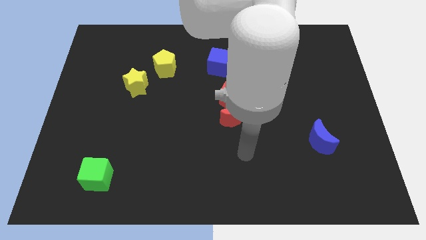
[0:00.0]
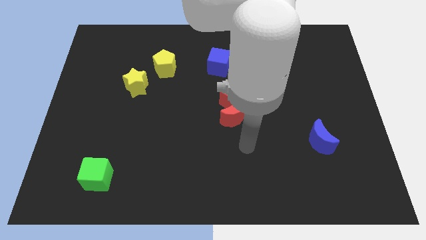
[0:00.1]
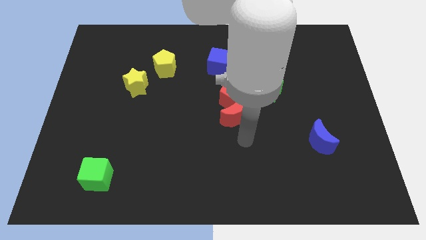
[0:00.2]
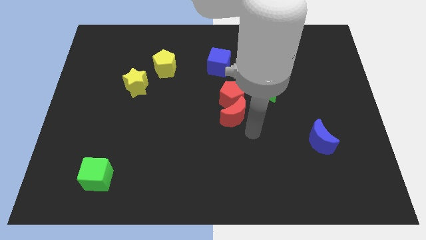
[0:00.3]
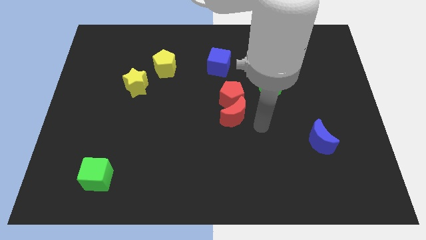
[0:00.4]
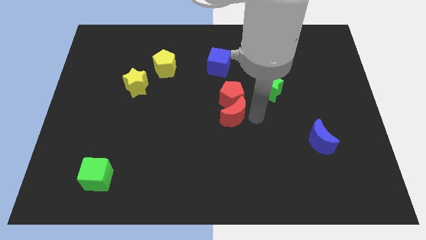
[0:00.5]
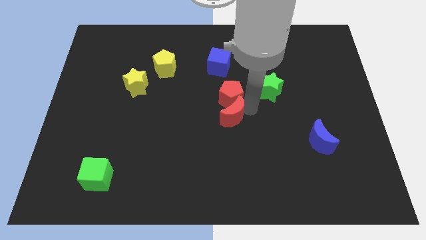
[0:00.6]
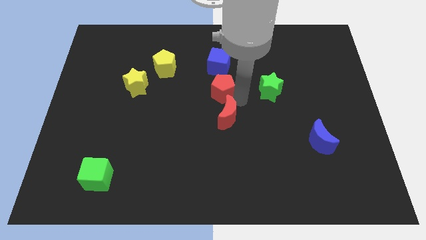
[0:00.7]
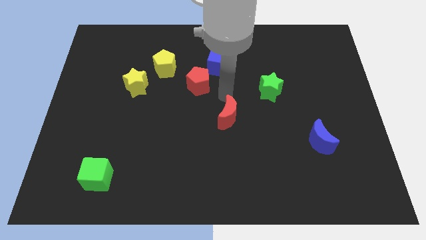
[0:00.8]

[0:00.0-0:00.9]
separate the red moon from the red pentagon

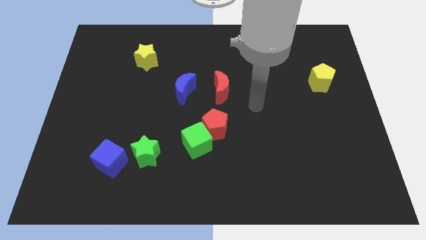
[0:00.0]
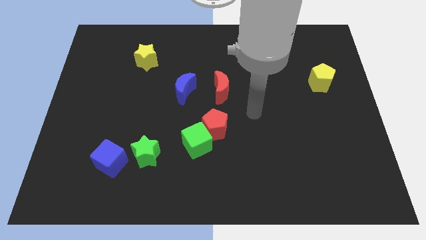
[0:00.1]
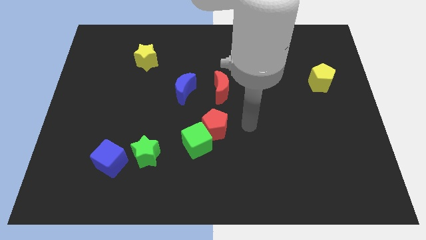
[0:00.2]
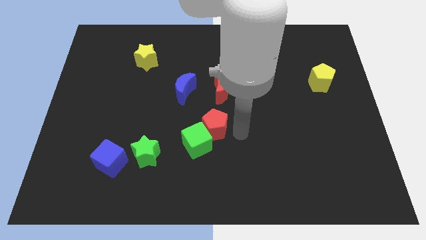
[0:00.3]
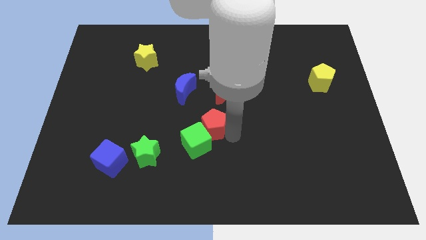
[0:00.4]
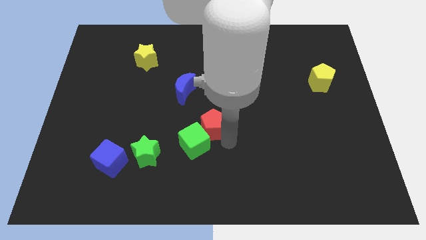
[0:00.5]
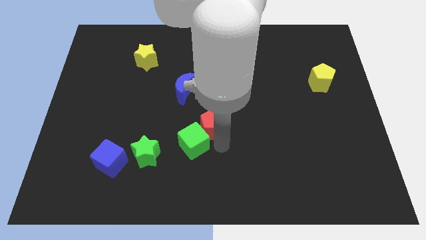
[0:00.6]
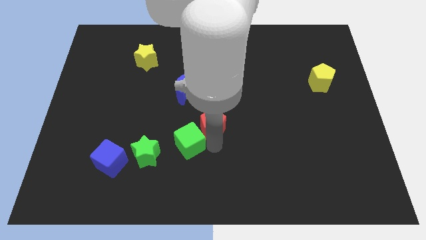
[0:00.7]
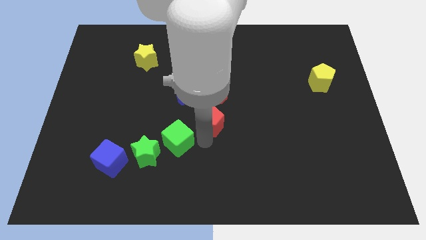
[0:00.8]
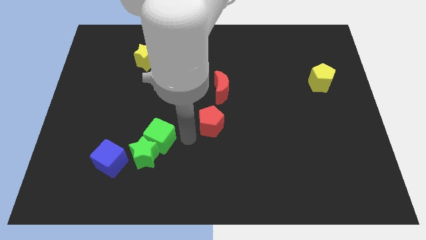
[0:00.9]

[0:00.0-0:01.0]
separate the red pentagon from the green cube

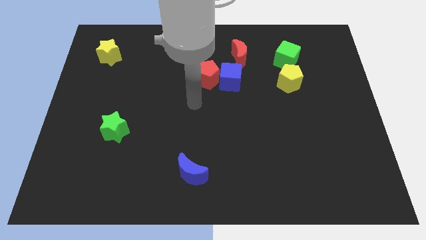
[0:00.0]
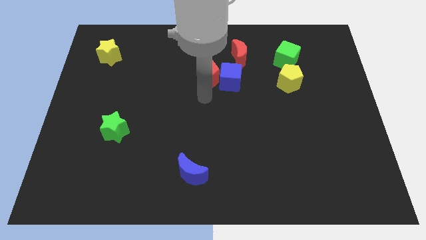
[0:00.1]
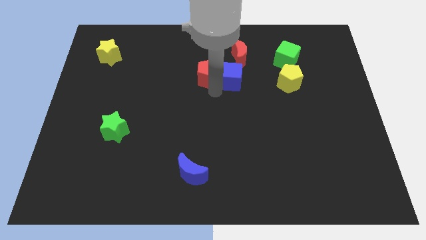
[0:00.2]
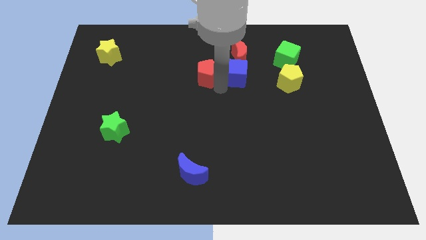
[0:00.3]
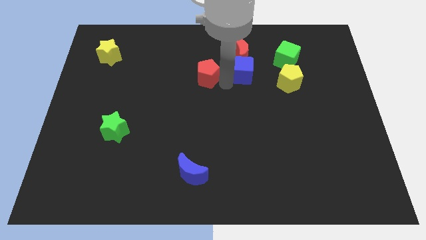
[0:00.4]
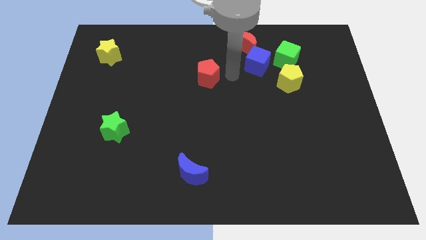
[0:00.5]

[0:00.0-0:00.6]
move the red pentagon away from the blue cube

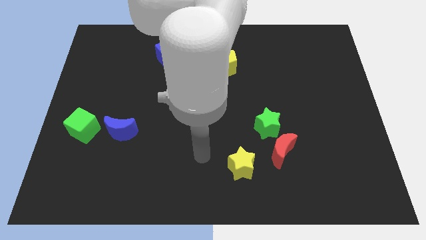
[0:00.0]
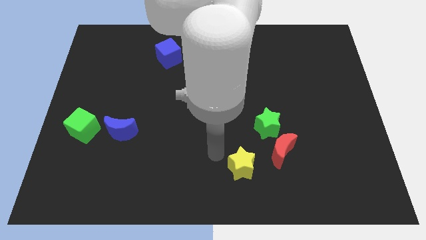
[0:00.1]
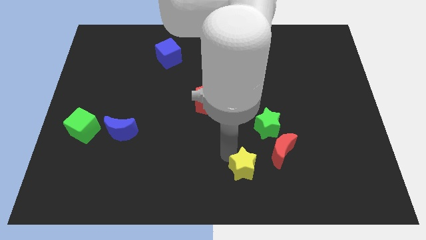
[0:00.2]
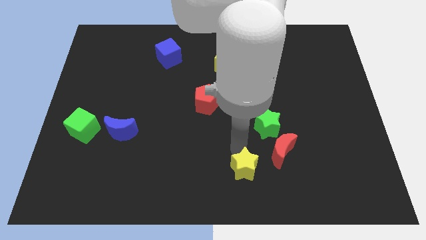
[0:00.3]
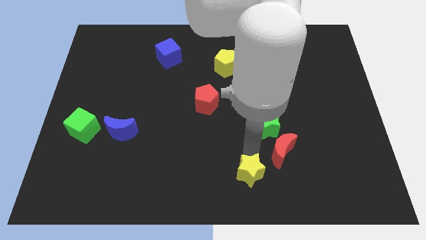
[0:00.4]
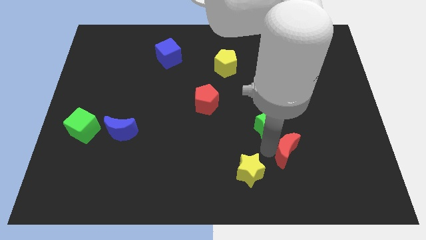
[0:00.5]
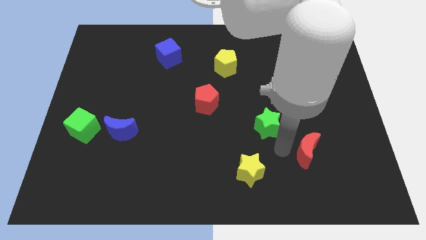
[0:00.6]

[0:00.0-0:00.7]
separate the green star from the red moon

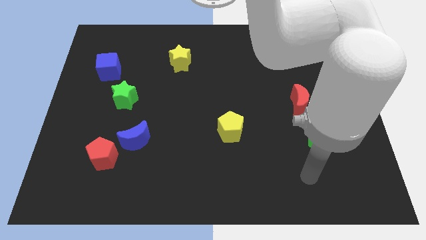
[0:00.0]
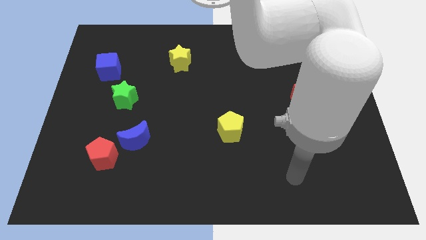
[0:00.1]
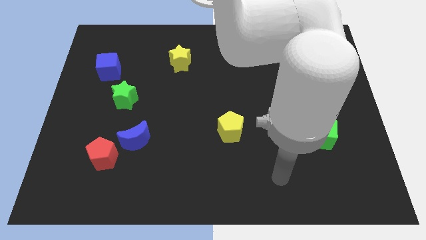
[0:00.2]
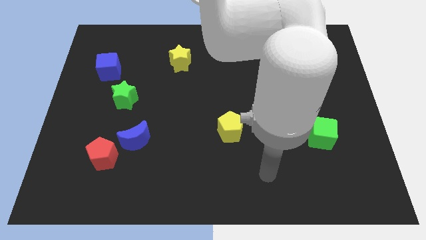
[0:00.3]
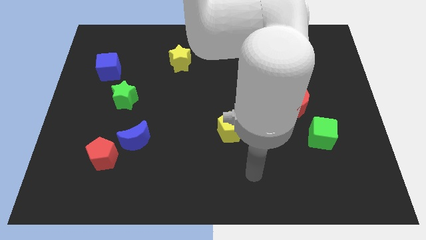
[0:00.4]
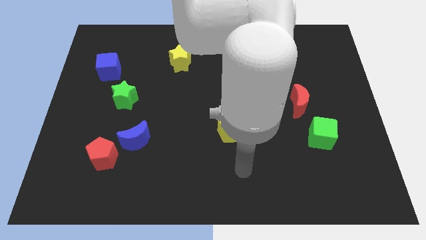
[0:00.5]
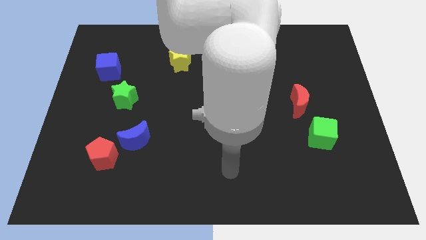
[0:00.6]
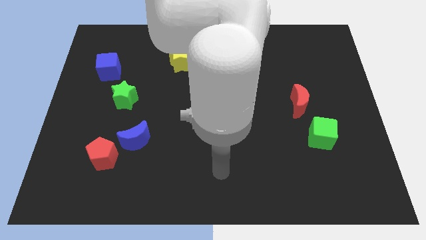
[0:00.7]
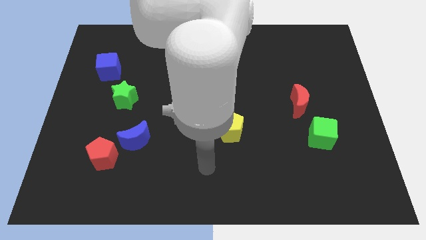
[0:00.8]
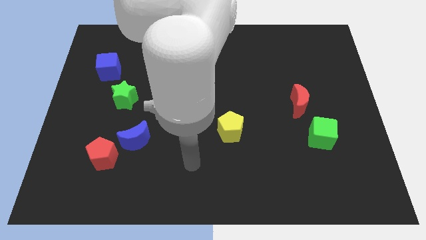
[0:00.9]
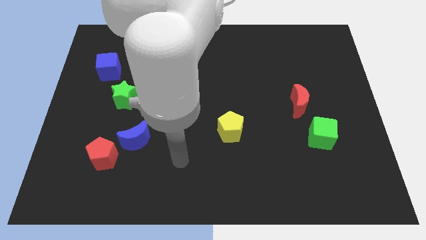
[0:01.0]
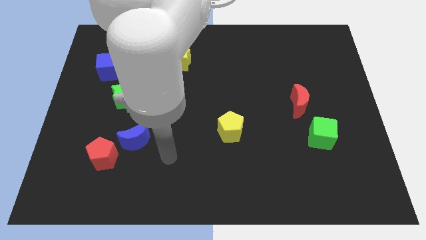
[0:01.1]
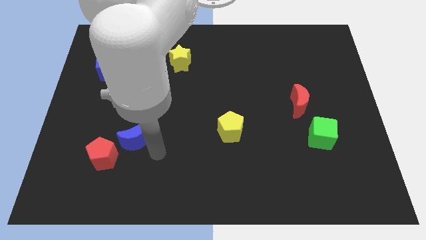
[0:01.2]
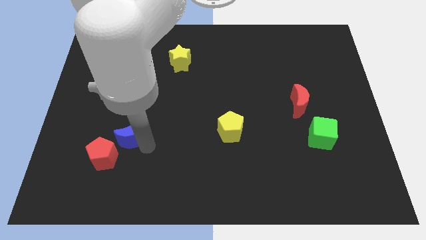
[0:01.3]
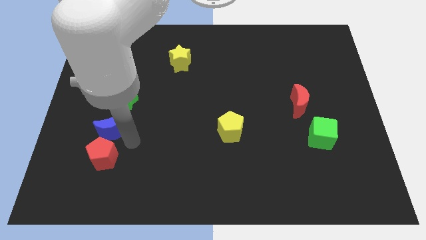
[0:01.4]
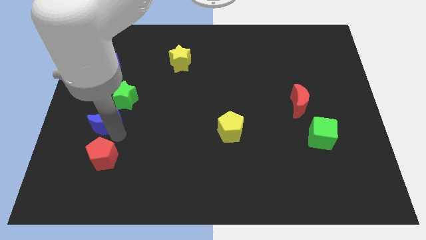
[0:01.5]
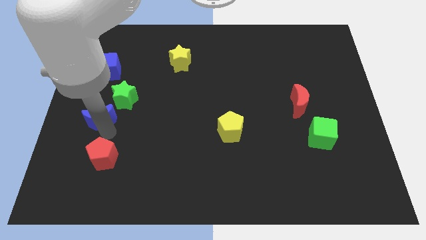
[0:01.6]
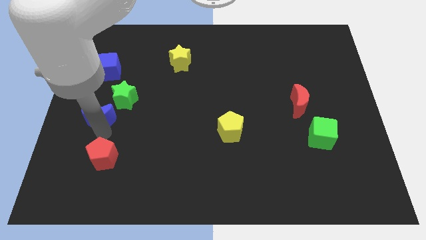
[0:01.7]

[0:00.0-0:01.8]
separate the red pentagon from the blue moon

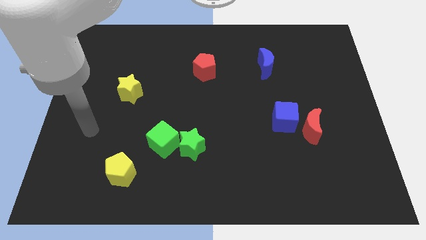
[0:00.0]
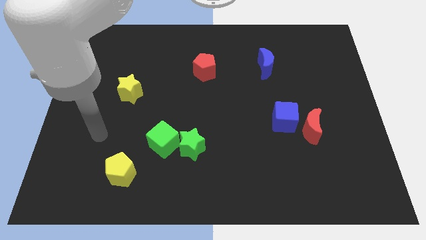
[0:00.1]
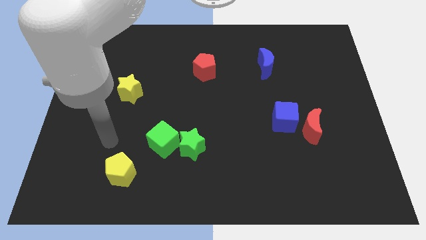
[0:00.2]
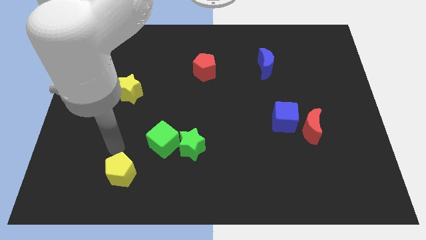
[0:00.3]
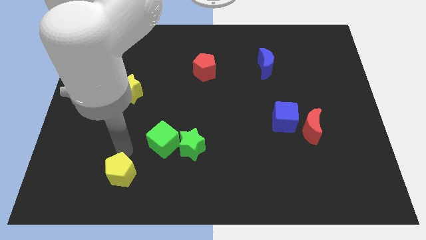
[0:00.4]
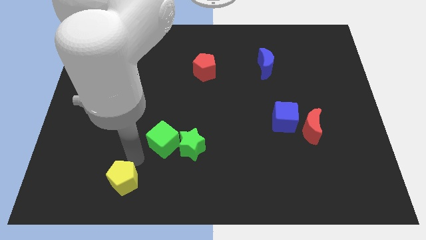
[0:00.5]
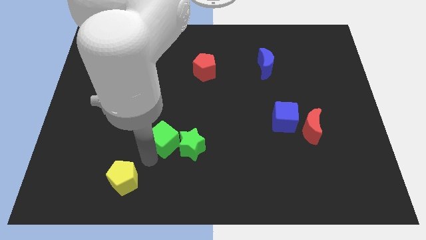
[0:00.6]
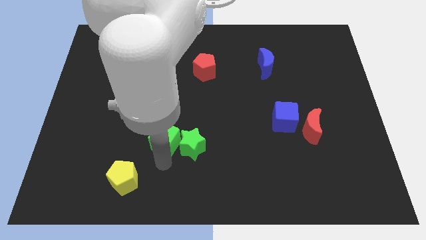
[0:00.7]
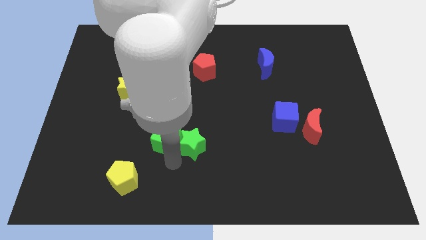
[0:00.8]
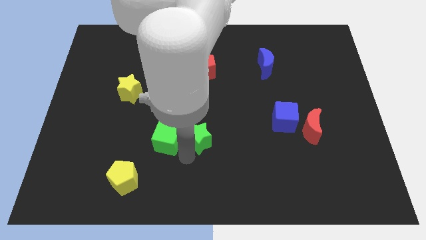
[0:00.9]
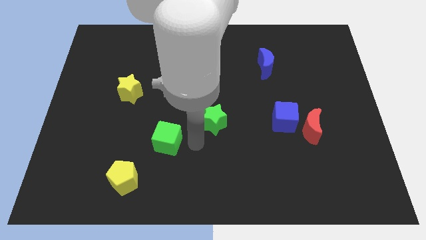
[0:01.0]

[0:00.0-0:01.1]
move the green cube away from the green star

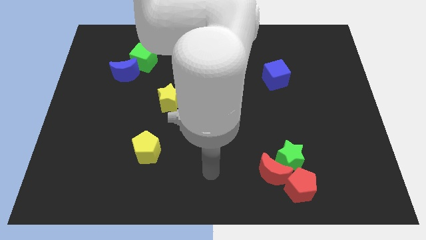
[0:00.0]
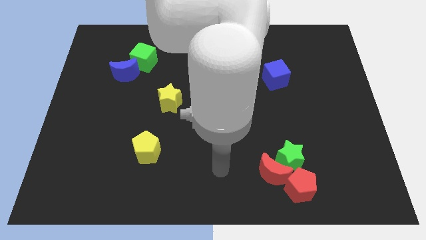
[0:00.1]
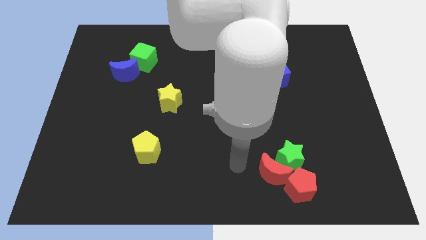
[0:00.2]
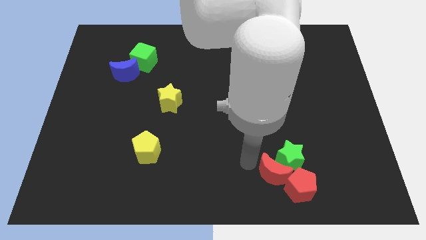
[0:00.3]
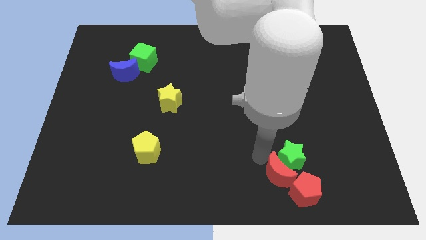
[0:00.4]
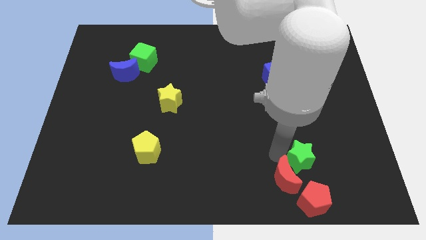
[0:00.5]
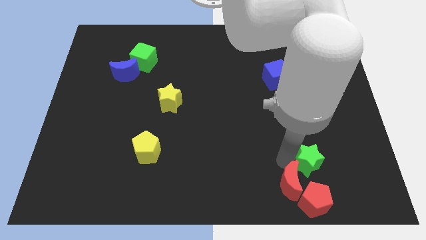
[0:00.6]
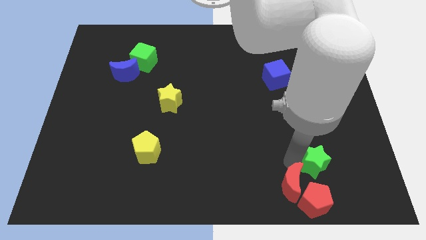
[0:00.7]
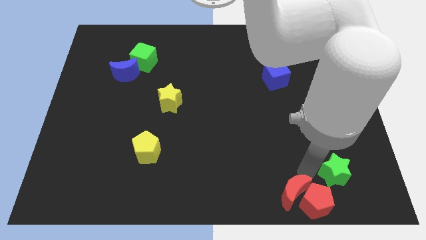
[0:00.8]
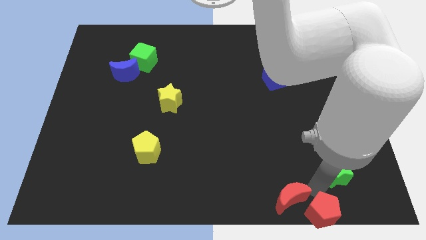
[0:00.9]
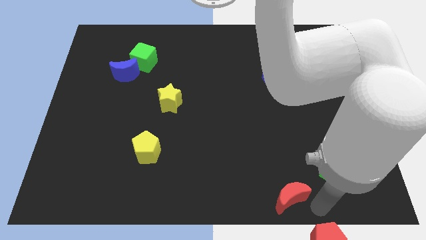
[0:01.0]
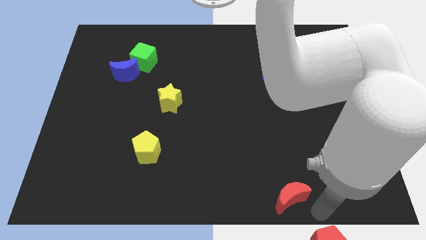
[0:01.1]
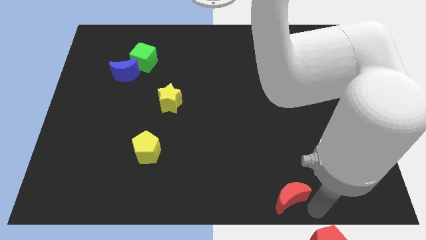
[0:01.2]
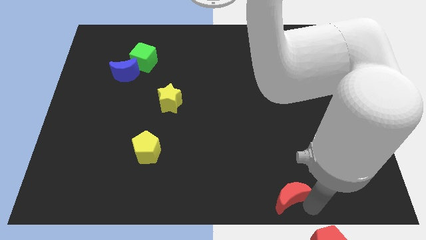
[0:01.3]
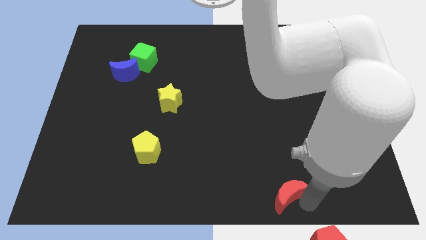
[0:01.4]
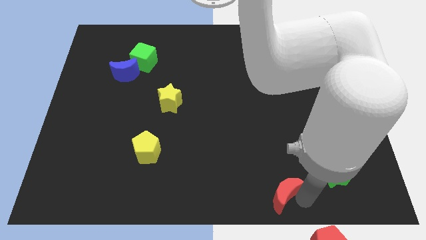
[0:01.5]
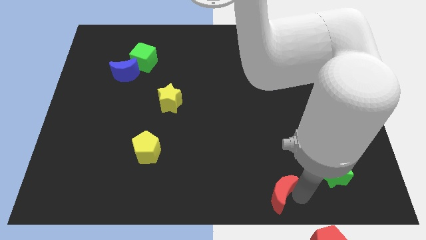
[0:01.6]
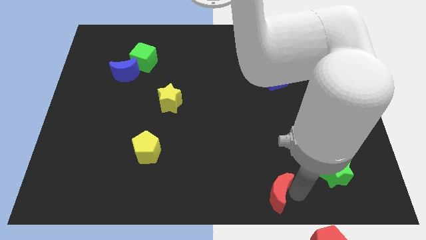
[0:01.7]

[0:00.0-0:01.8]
pull the red moon apart from the green star and red pentagon

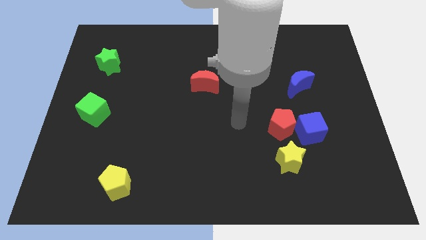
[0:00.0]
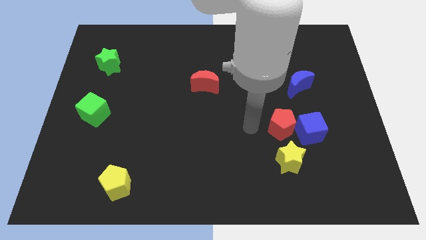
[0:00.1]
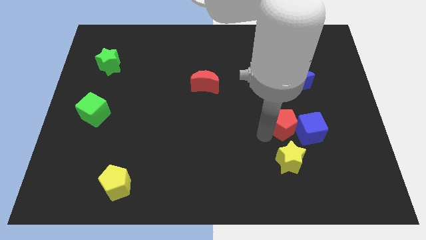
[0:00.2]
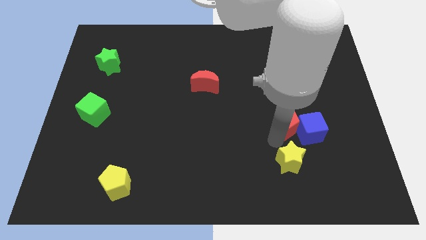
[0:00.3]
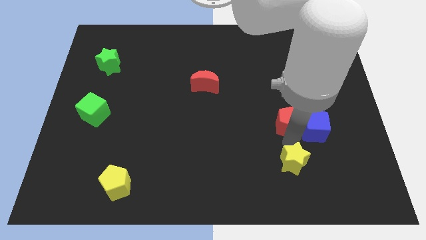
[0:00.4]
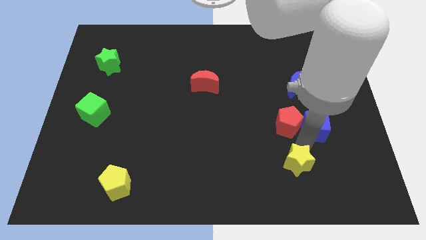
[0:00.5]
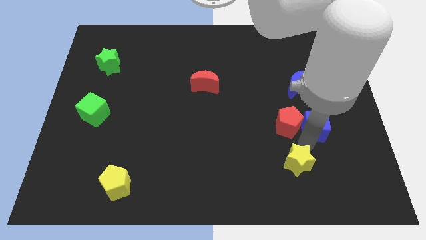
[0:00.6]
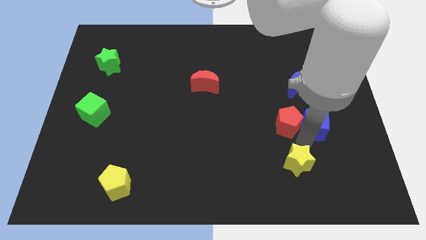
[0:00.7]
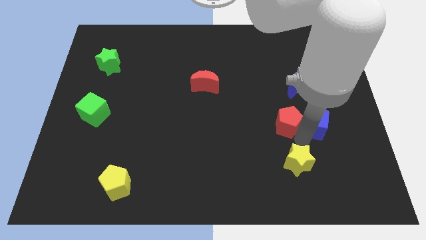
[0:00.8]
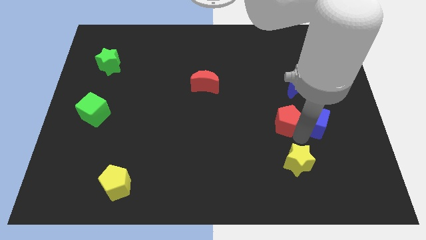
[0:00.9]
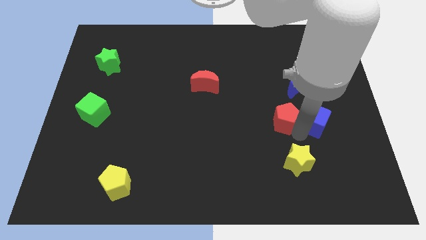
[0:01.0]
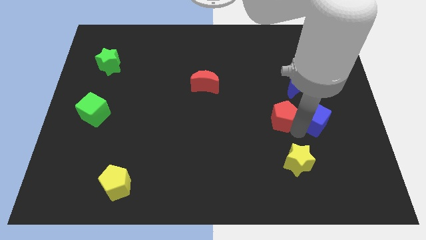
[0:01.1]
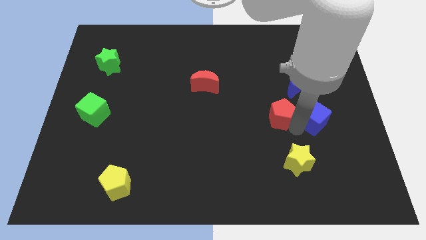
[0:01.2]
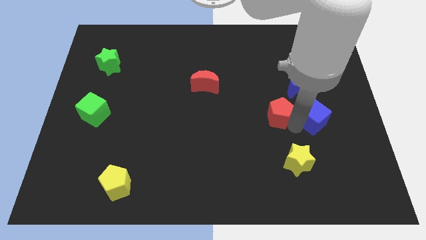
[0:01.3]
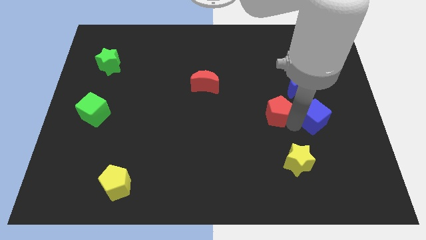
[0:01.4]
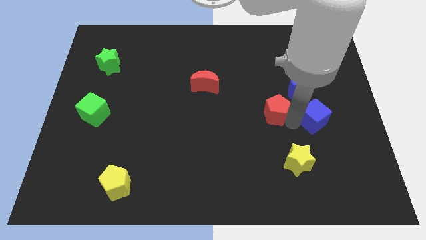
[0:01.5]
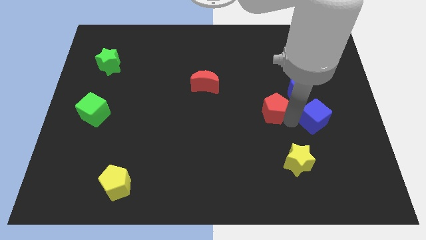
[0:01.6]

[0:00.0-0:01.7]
separate the red pentagon from the blue cube and yellow star
